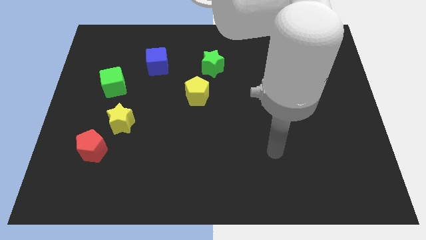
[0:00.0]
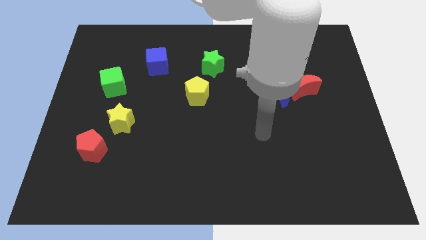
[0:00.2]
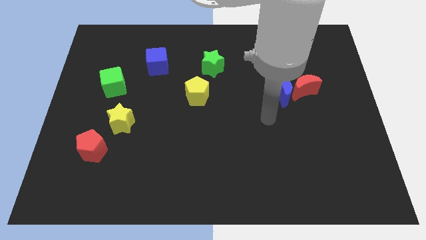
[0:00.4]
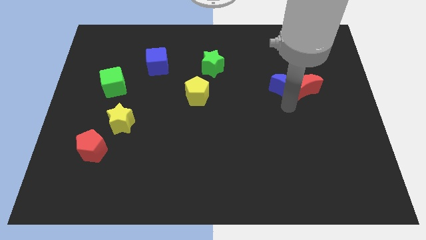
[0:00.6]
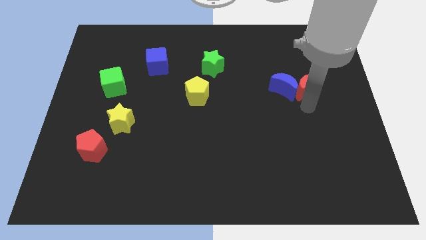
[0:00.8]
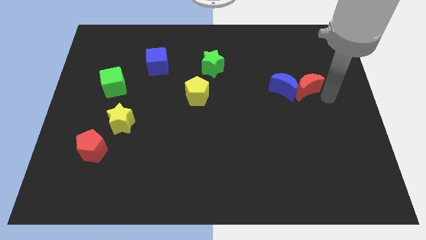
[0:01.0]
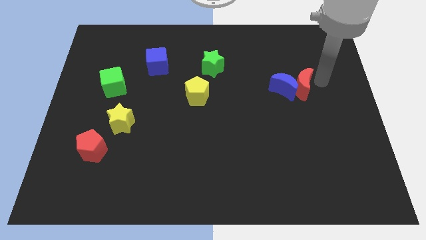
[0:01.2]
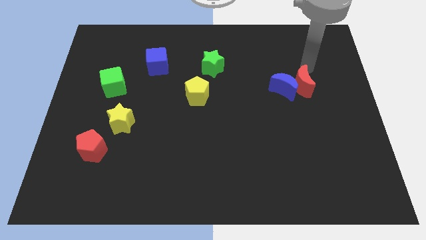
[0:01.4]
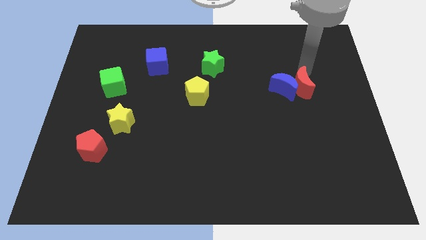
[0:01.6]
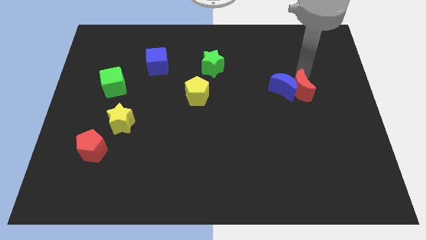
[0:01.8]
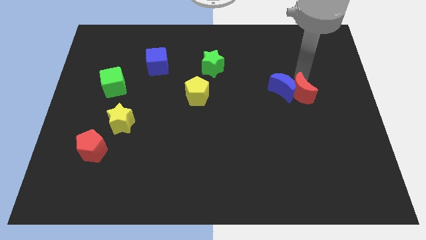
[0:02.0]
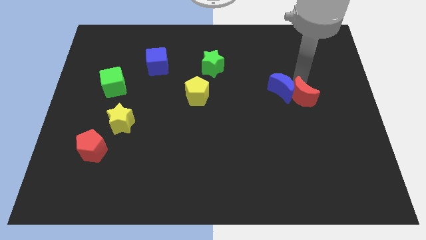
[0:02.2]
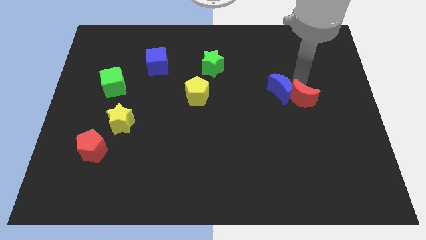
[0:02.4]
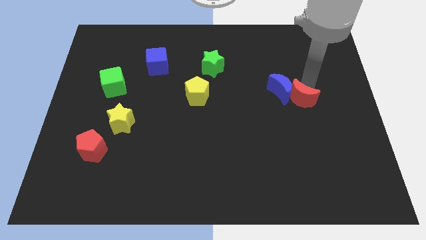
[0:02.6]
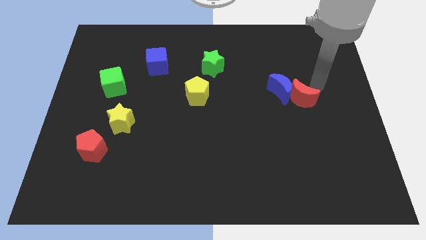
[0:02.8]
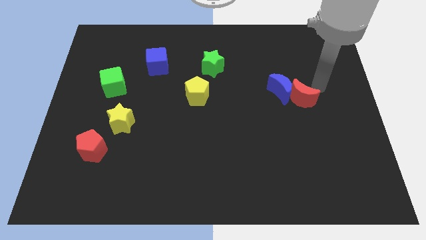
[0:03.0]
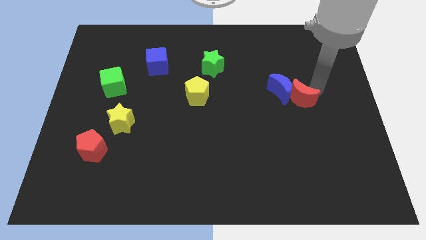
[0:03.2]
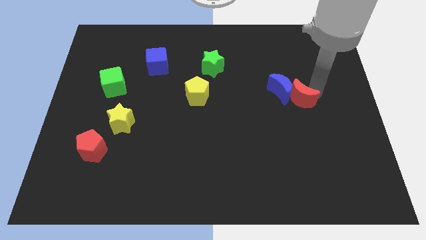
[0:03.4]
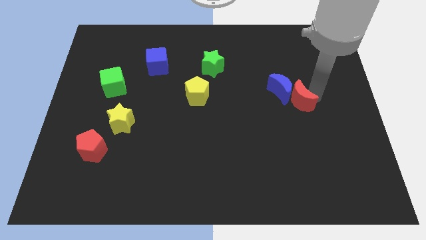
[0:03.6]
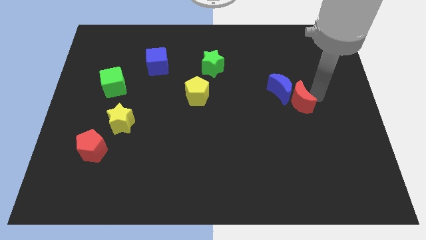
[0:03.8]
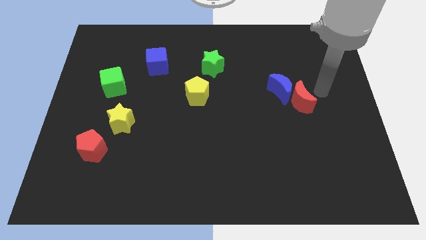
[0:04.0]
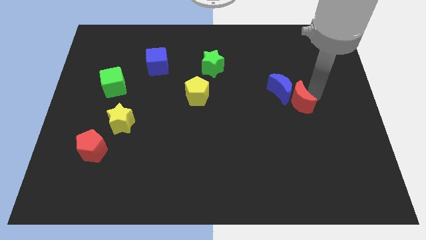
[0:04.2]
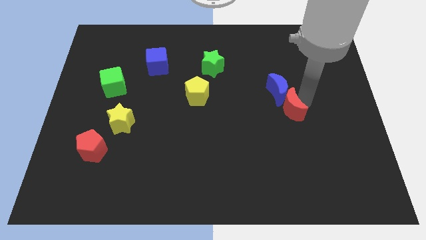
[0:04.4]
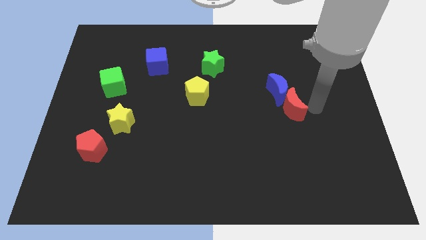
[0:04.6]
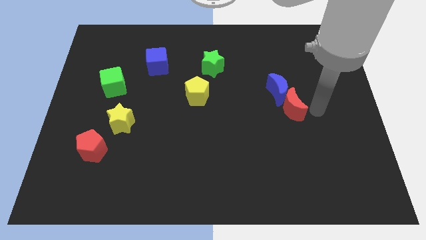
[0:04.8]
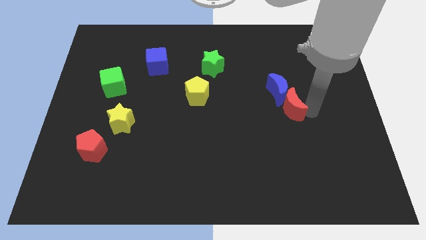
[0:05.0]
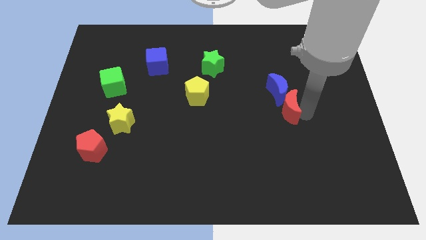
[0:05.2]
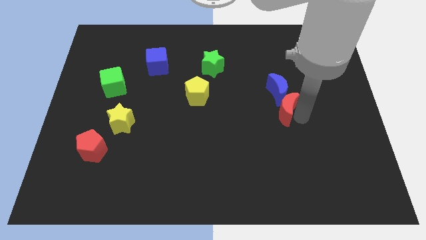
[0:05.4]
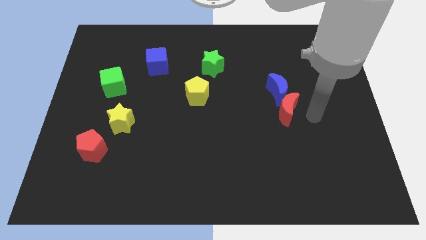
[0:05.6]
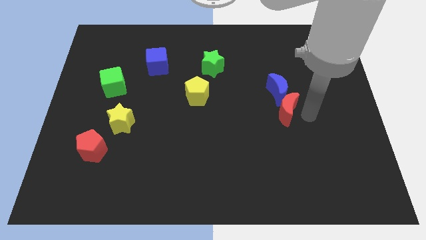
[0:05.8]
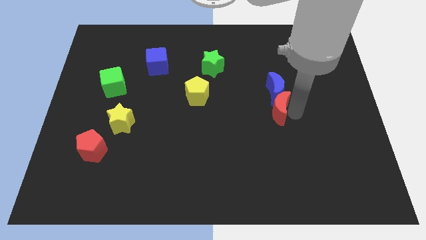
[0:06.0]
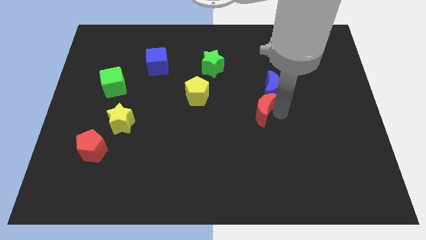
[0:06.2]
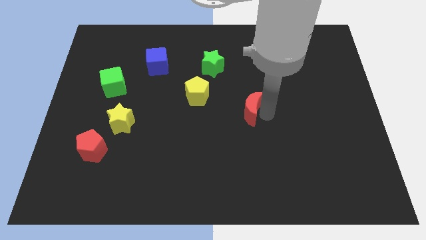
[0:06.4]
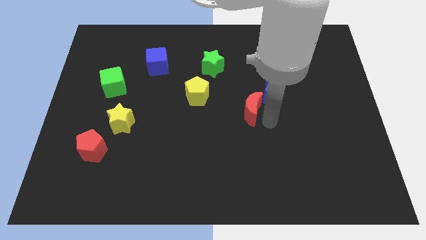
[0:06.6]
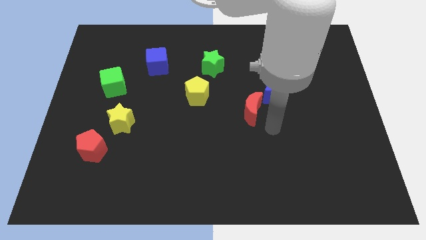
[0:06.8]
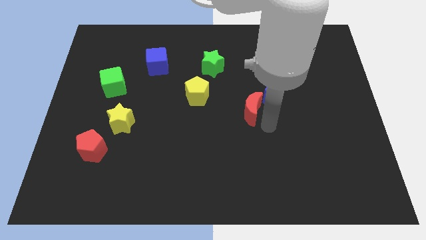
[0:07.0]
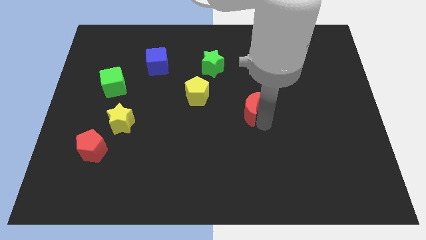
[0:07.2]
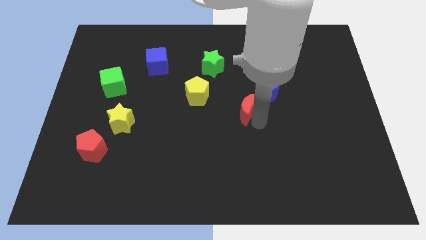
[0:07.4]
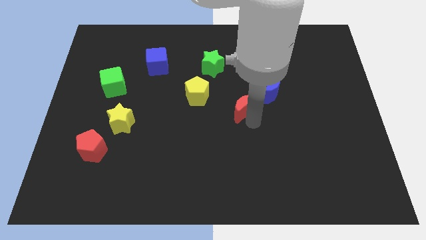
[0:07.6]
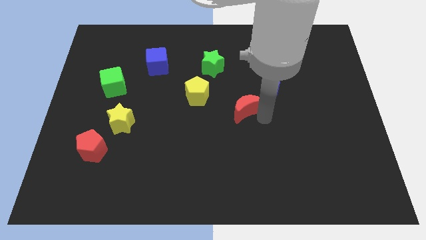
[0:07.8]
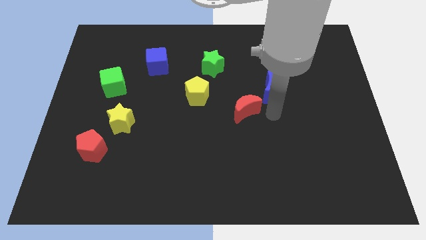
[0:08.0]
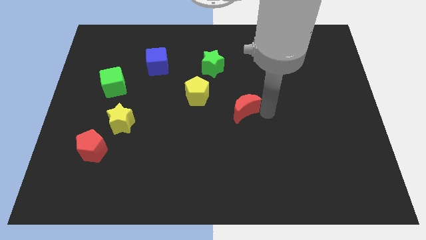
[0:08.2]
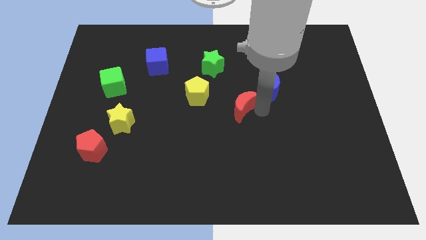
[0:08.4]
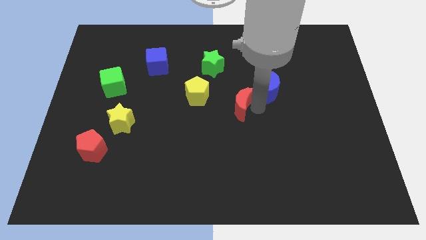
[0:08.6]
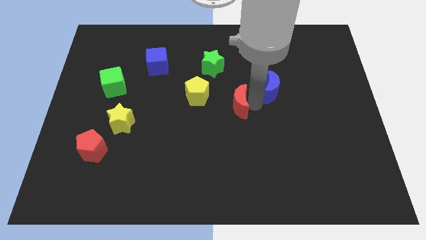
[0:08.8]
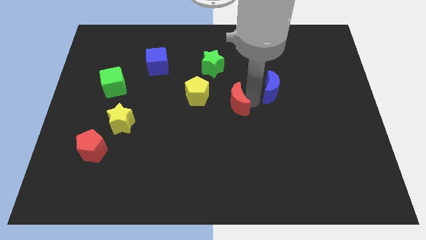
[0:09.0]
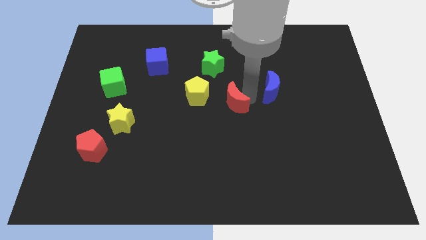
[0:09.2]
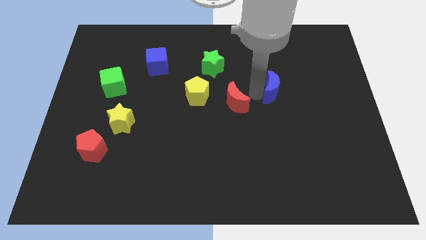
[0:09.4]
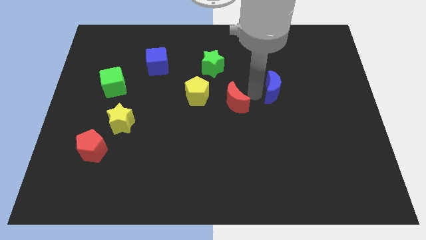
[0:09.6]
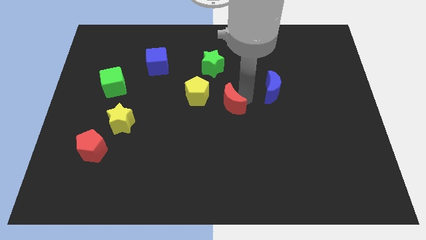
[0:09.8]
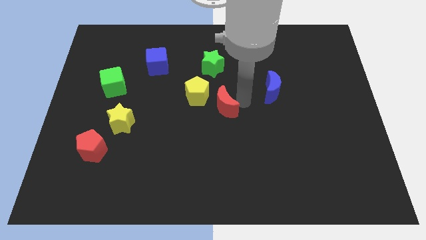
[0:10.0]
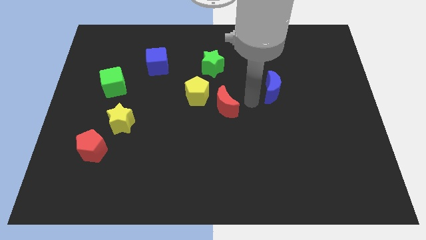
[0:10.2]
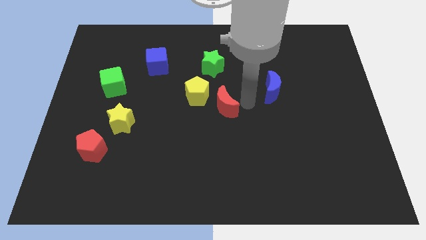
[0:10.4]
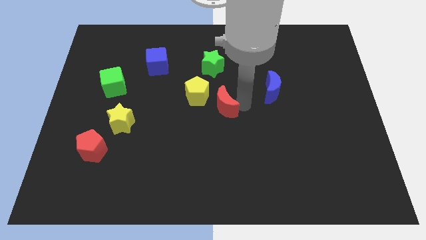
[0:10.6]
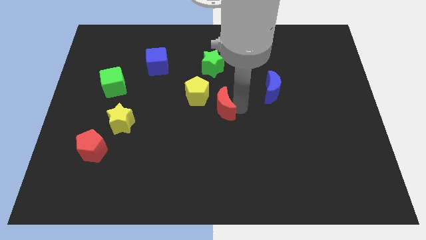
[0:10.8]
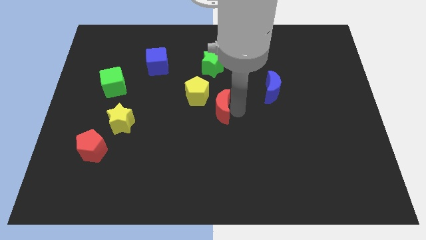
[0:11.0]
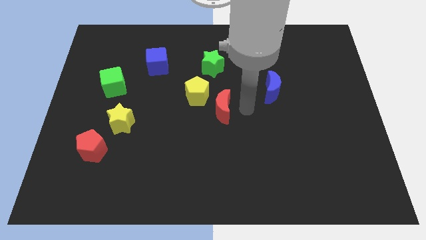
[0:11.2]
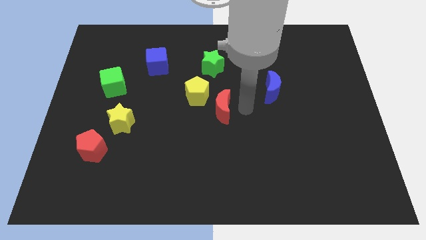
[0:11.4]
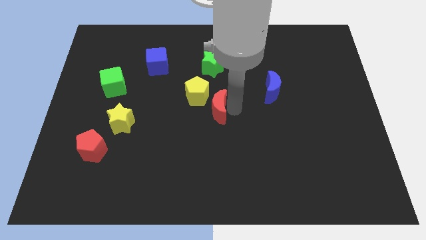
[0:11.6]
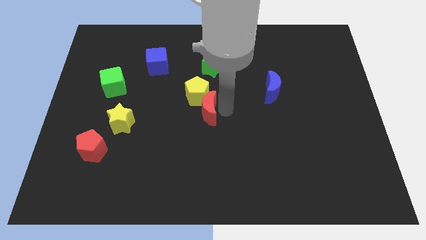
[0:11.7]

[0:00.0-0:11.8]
slide the red moon to the left

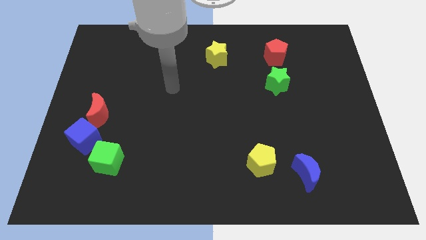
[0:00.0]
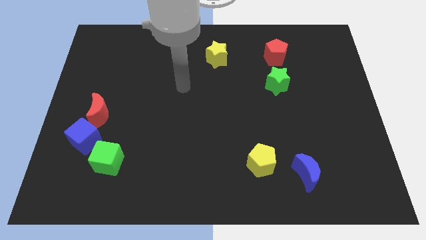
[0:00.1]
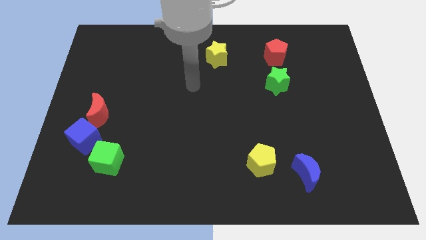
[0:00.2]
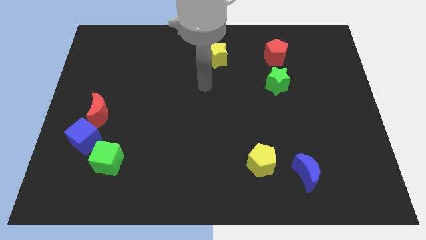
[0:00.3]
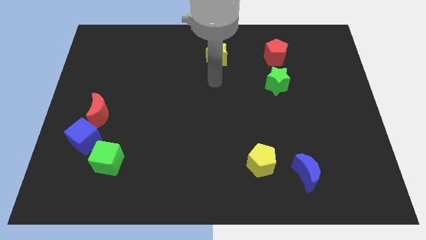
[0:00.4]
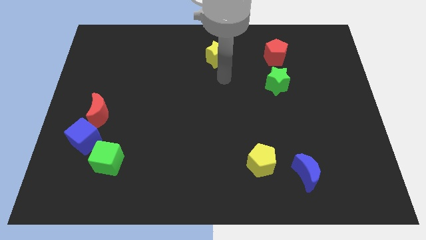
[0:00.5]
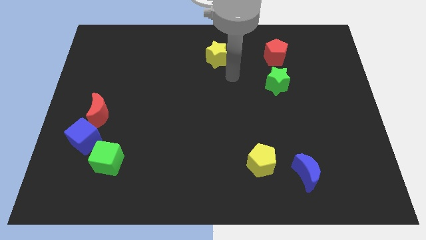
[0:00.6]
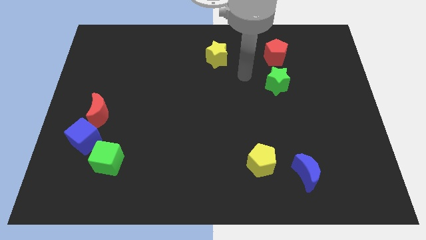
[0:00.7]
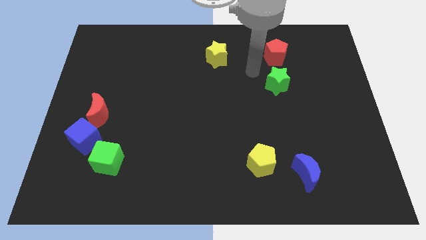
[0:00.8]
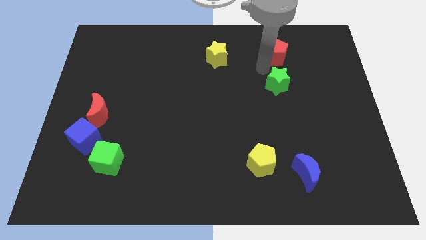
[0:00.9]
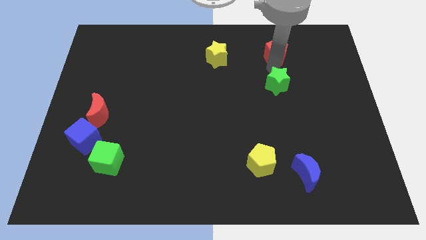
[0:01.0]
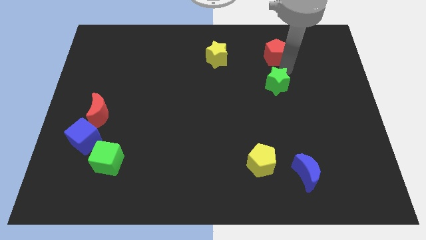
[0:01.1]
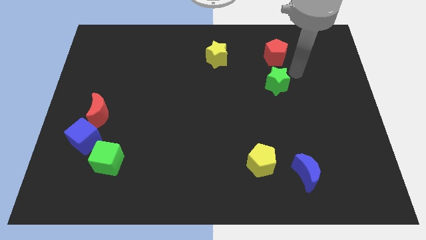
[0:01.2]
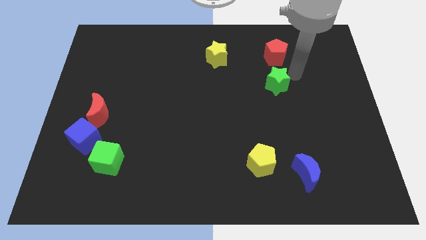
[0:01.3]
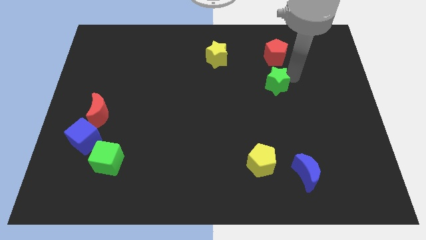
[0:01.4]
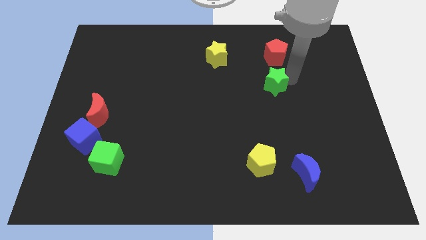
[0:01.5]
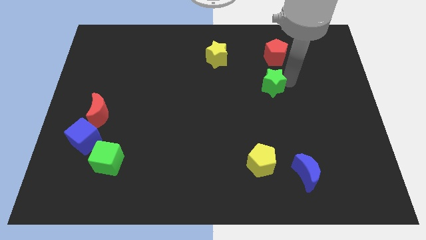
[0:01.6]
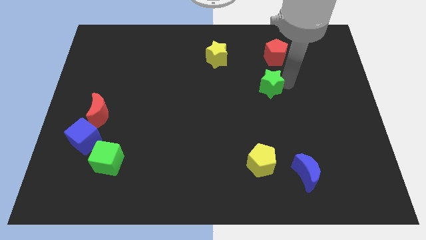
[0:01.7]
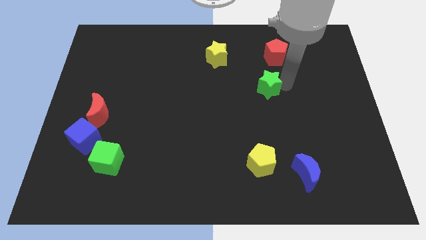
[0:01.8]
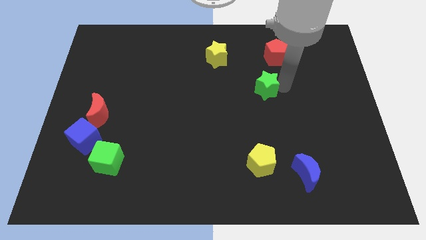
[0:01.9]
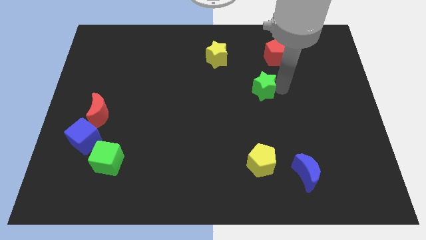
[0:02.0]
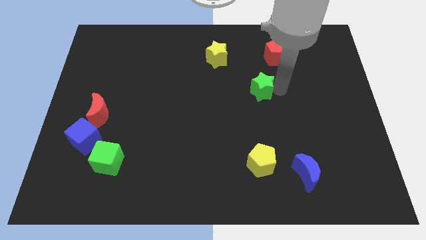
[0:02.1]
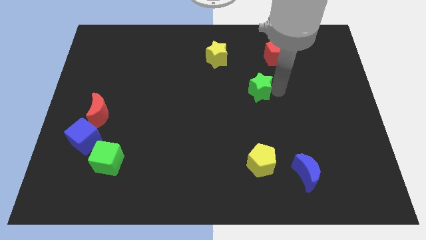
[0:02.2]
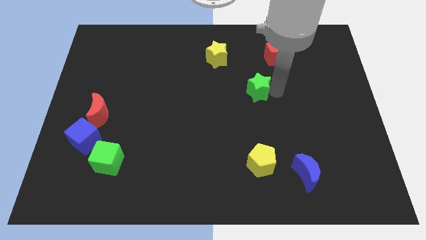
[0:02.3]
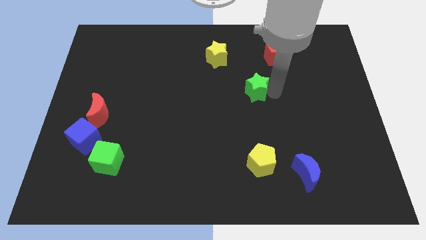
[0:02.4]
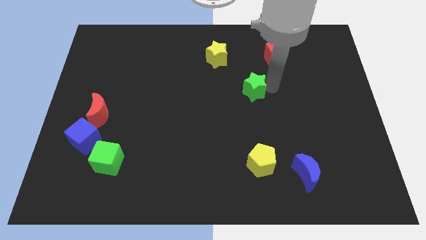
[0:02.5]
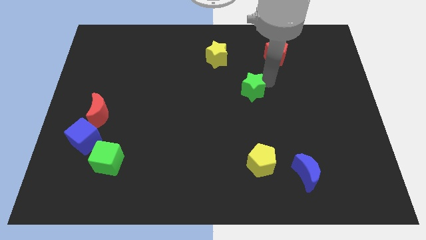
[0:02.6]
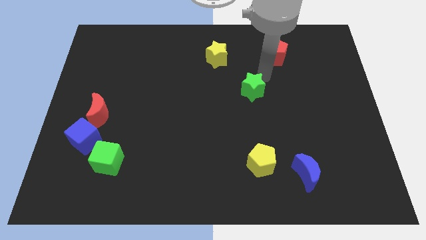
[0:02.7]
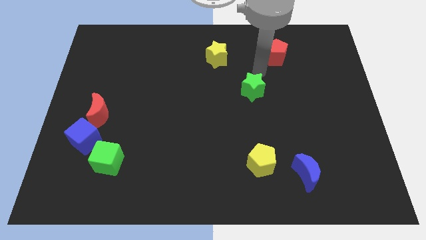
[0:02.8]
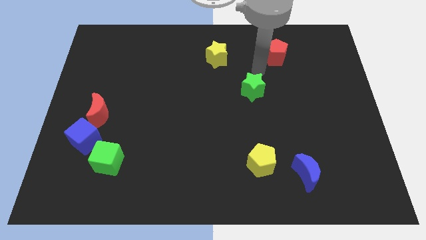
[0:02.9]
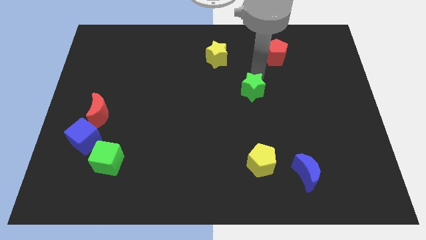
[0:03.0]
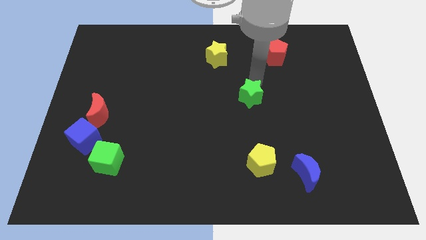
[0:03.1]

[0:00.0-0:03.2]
move the green star a little bit diagonally down and left
